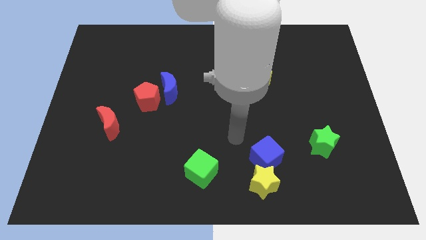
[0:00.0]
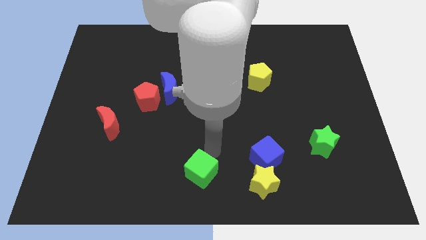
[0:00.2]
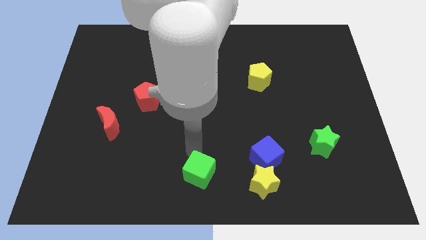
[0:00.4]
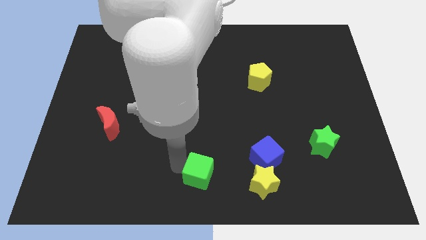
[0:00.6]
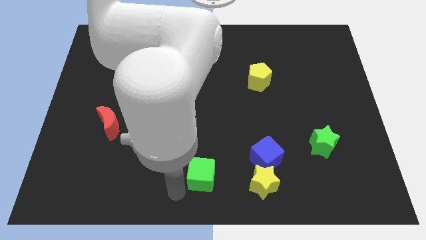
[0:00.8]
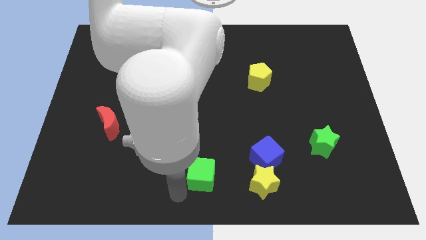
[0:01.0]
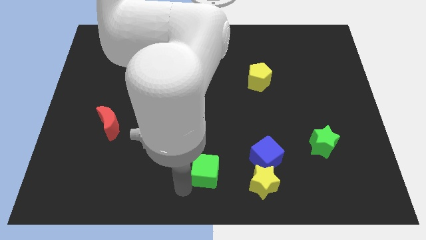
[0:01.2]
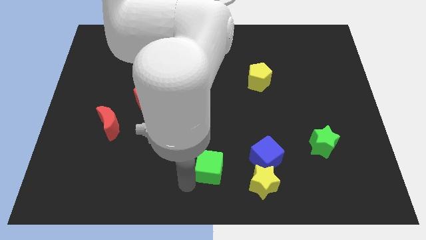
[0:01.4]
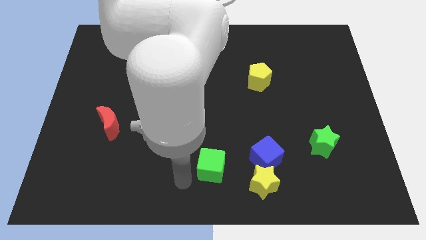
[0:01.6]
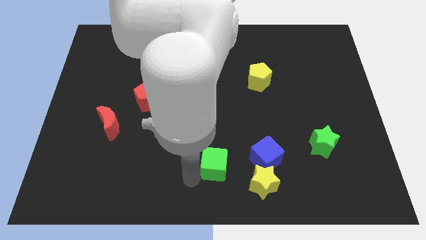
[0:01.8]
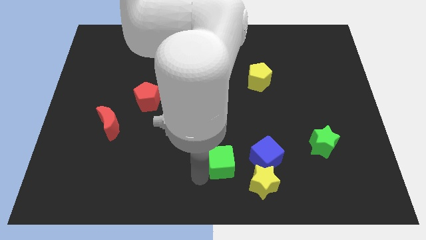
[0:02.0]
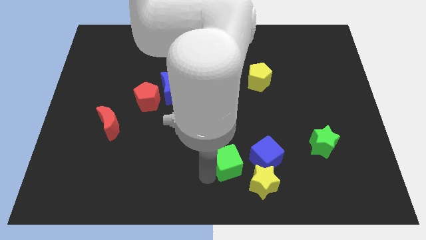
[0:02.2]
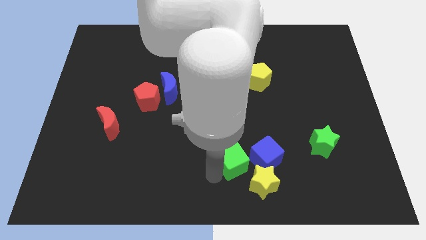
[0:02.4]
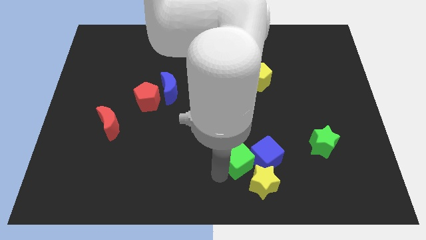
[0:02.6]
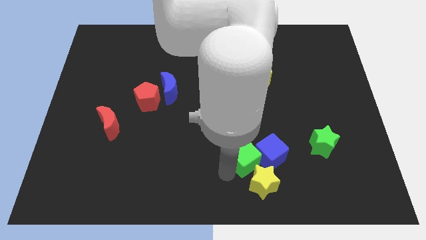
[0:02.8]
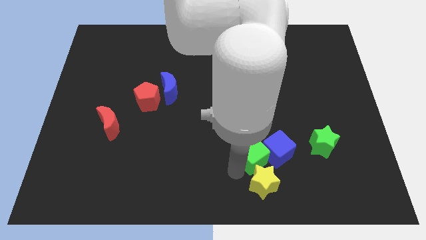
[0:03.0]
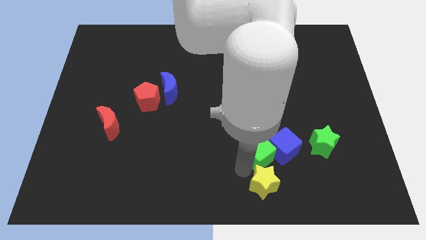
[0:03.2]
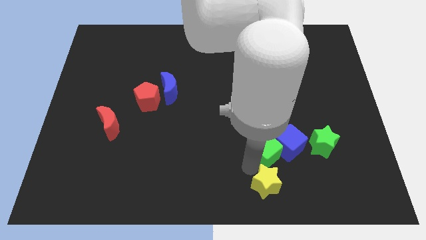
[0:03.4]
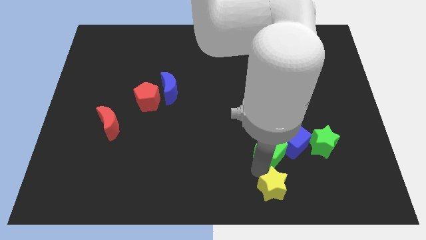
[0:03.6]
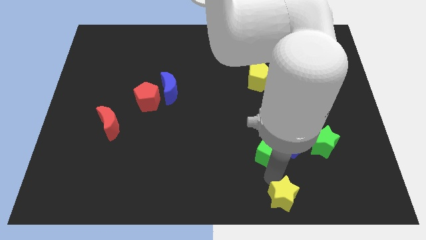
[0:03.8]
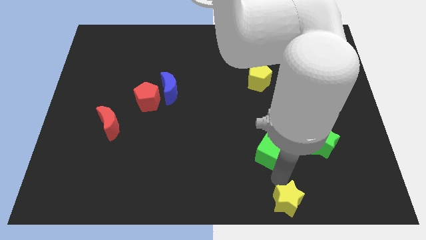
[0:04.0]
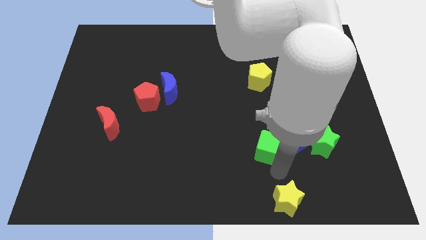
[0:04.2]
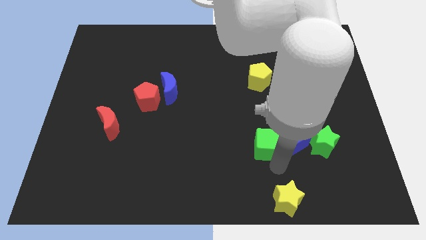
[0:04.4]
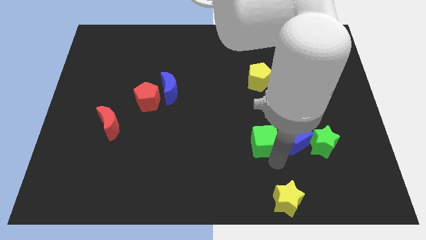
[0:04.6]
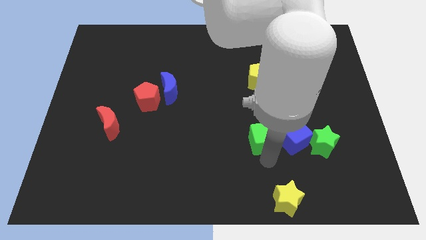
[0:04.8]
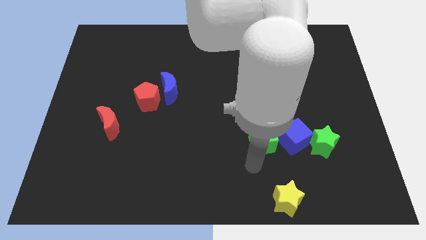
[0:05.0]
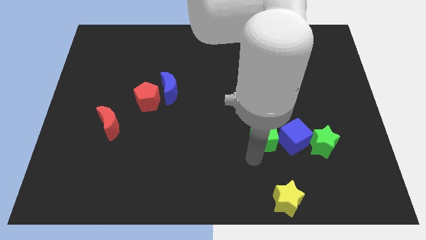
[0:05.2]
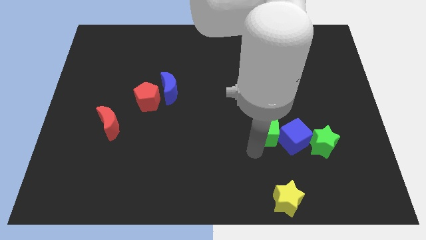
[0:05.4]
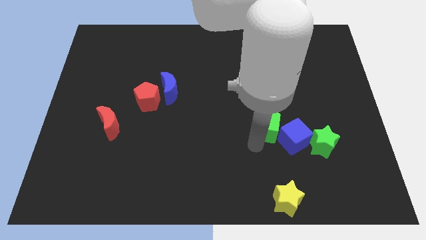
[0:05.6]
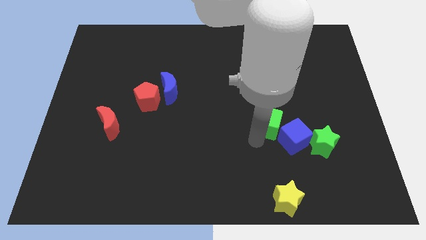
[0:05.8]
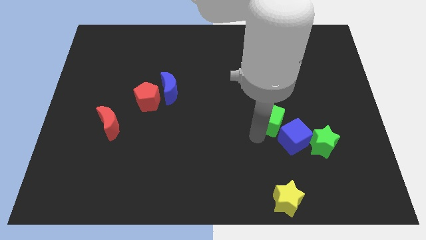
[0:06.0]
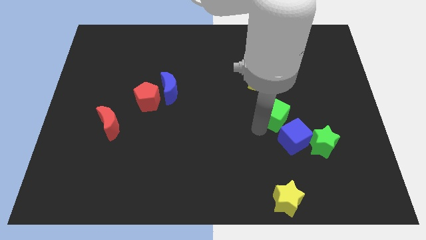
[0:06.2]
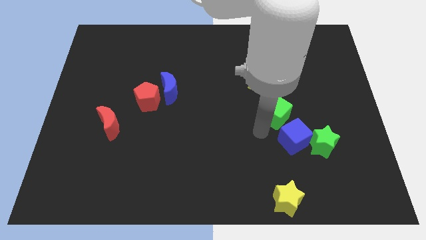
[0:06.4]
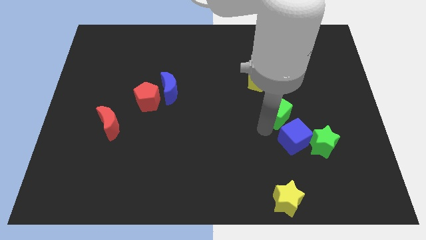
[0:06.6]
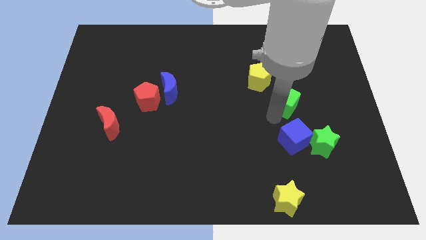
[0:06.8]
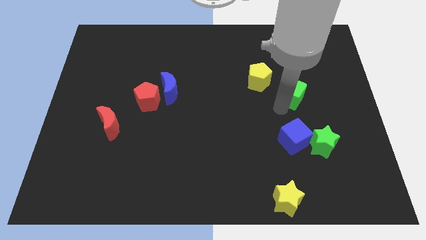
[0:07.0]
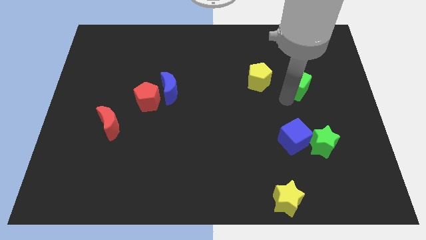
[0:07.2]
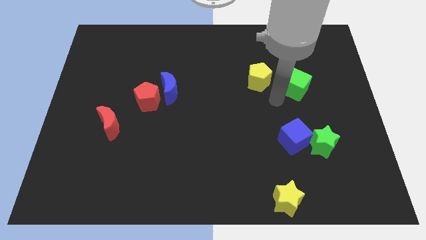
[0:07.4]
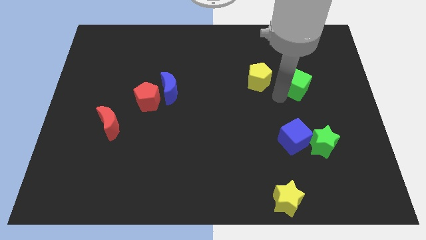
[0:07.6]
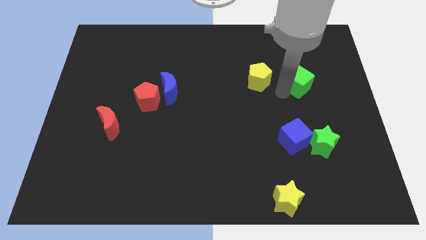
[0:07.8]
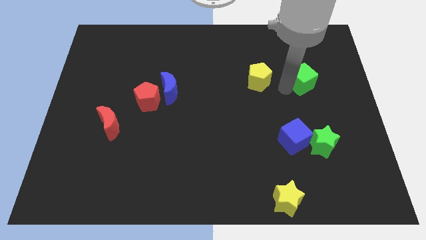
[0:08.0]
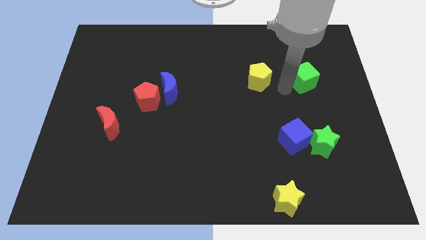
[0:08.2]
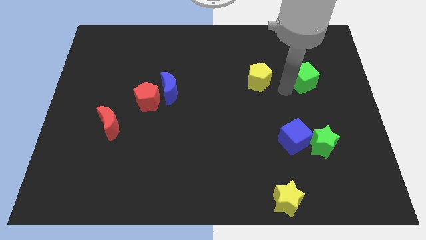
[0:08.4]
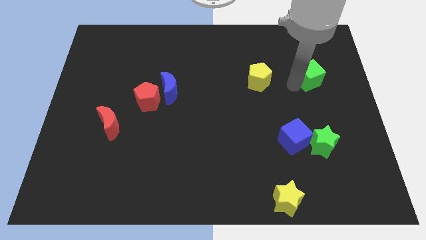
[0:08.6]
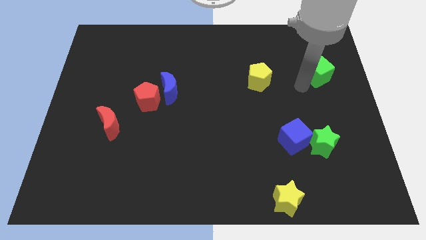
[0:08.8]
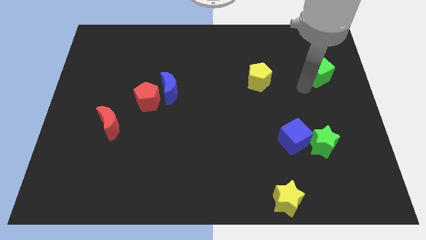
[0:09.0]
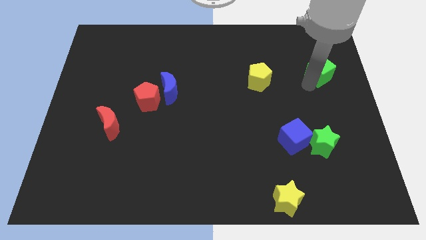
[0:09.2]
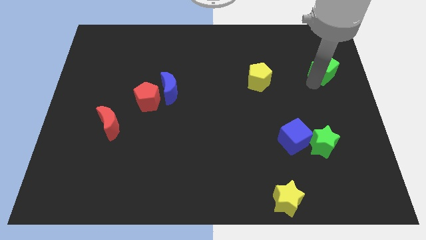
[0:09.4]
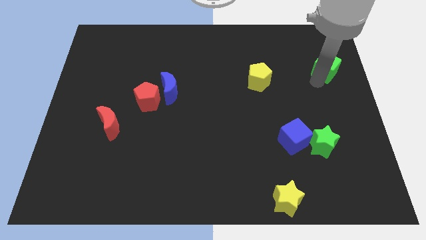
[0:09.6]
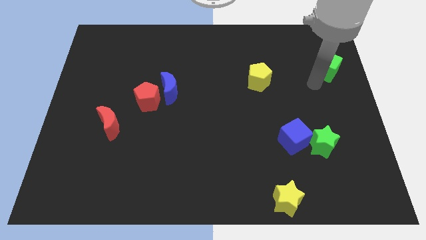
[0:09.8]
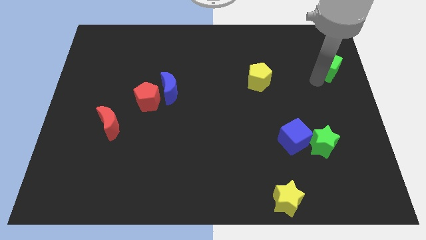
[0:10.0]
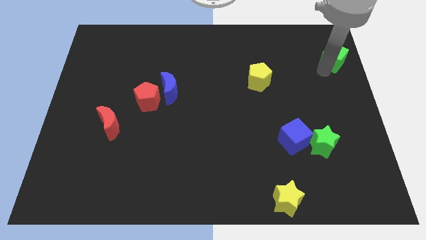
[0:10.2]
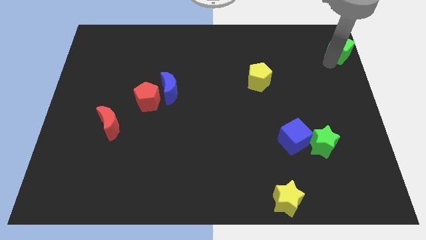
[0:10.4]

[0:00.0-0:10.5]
put the green cube to the upper right corner

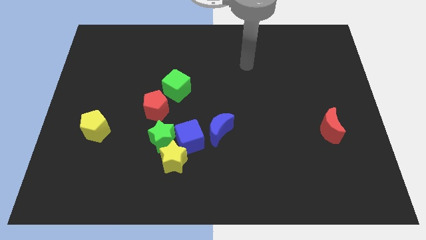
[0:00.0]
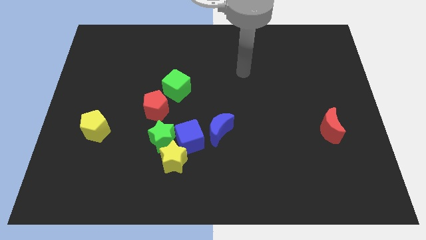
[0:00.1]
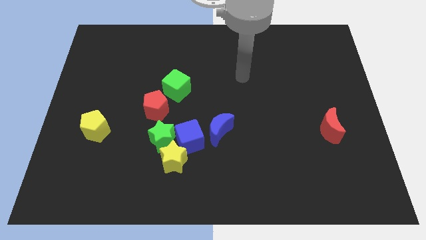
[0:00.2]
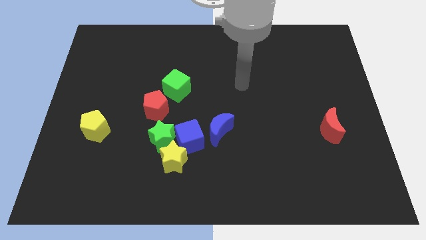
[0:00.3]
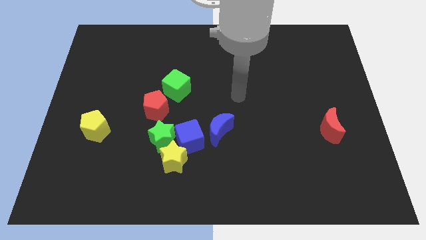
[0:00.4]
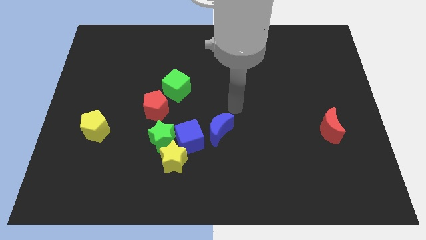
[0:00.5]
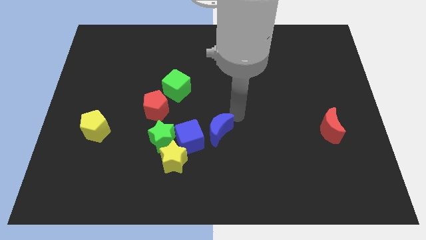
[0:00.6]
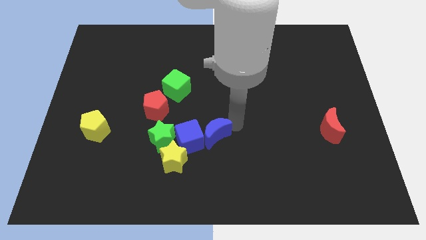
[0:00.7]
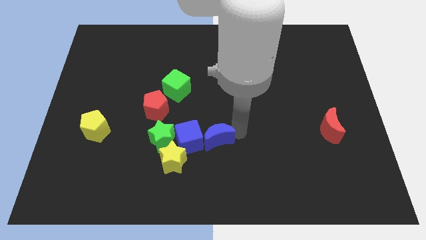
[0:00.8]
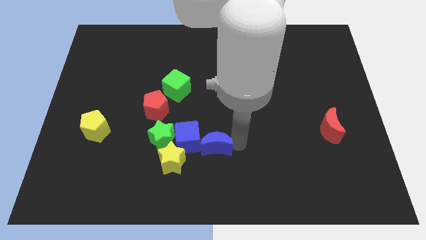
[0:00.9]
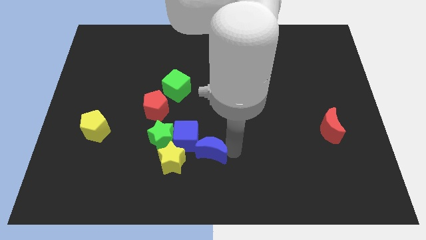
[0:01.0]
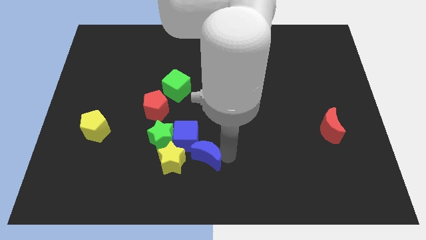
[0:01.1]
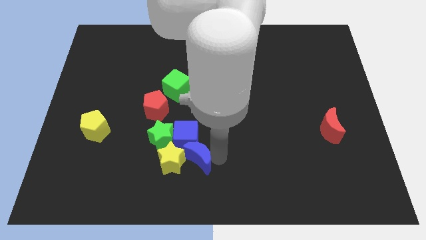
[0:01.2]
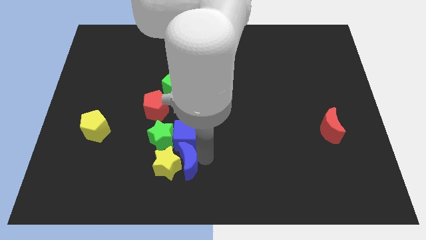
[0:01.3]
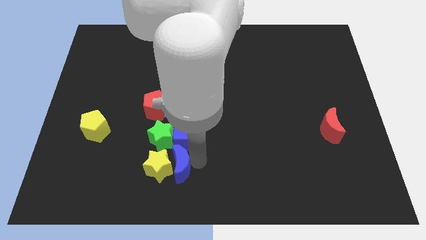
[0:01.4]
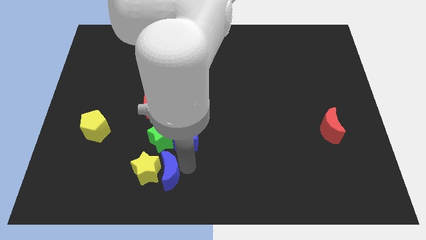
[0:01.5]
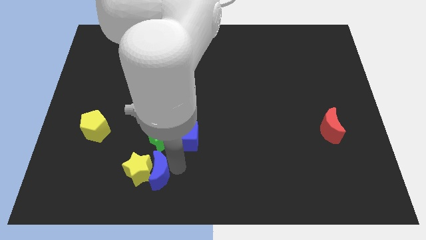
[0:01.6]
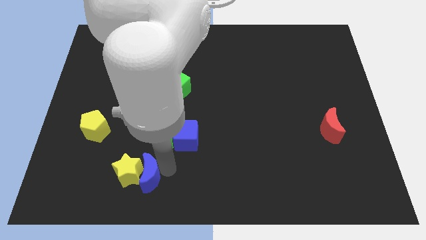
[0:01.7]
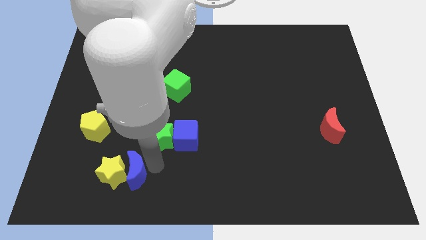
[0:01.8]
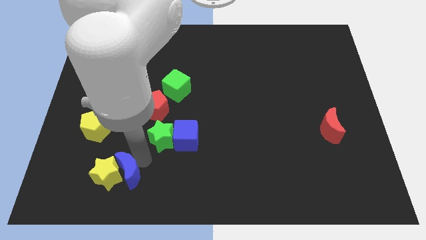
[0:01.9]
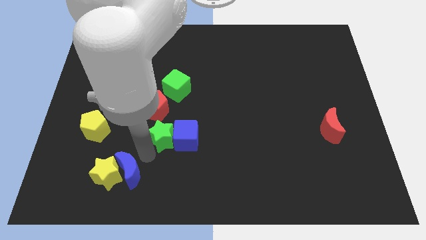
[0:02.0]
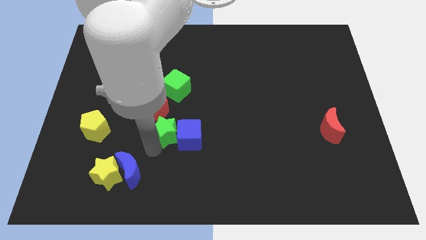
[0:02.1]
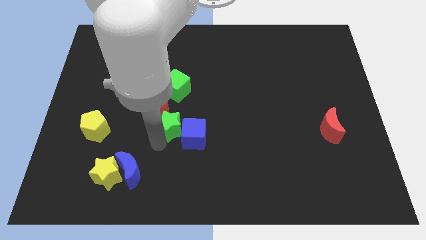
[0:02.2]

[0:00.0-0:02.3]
move the green star to the center of the board
